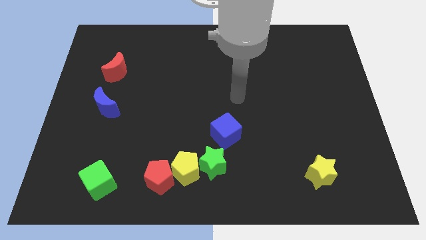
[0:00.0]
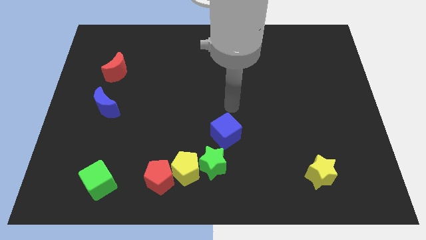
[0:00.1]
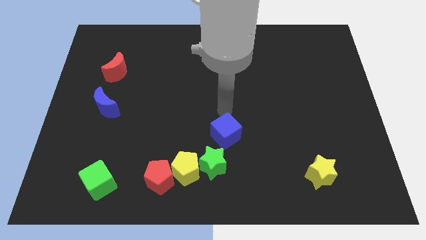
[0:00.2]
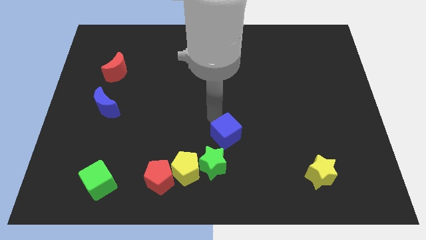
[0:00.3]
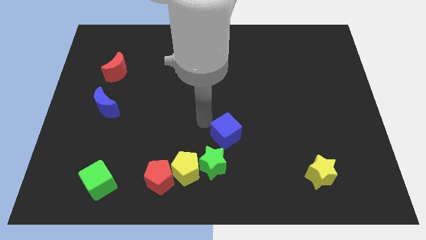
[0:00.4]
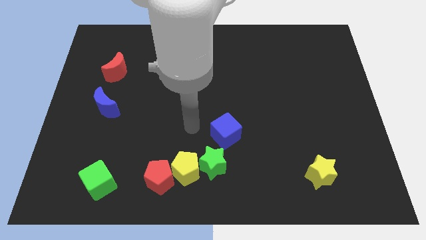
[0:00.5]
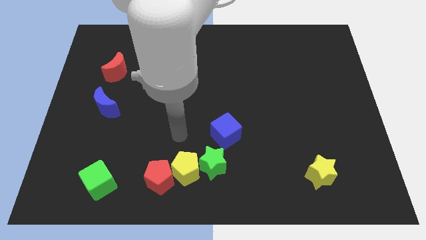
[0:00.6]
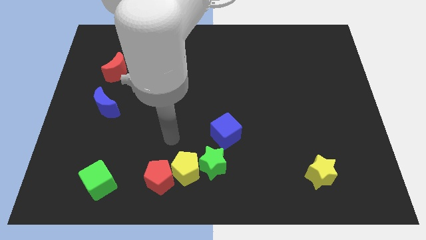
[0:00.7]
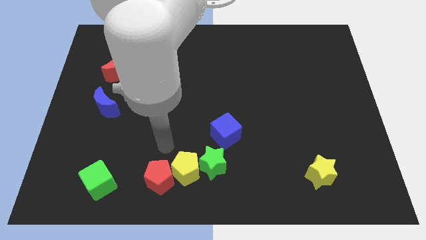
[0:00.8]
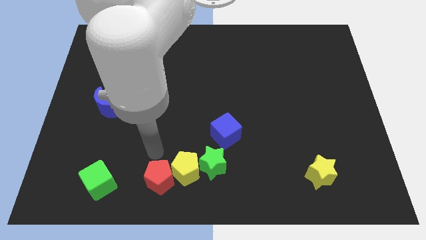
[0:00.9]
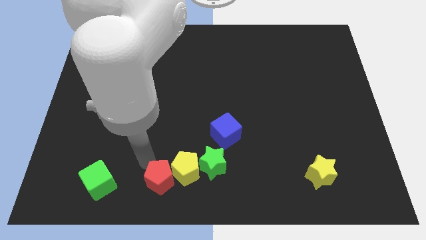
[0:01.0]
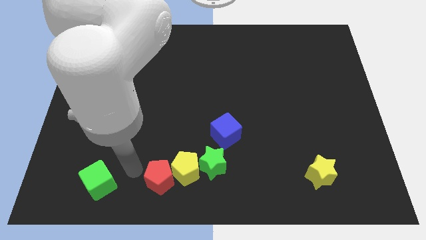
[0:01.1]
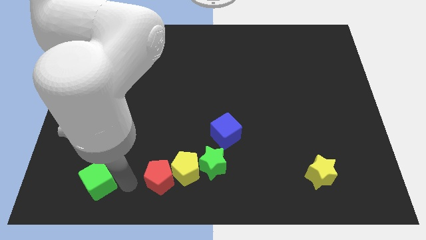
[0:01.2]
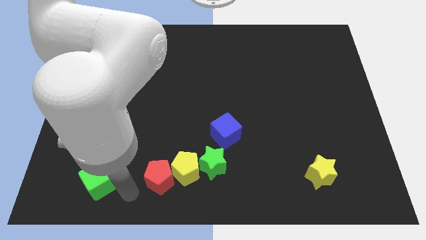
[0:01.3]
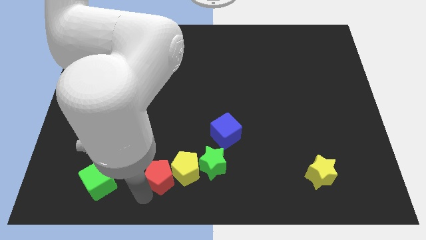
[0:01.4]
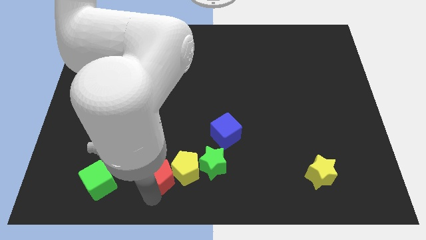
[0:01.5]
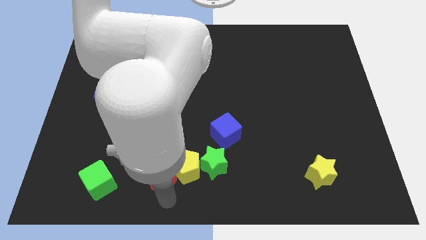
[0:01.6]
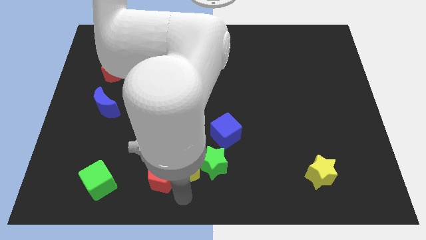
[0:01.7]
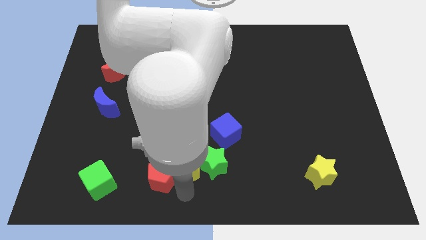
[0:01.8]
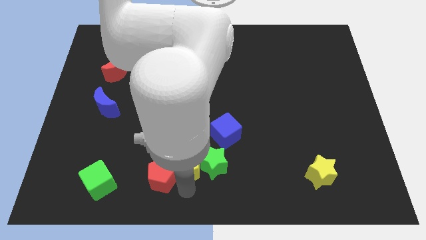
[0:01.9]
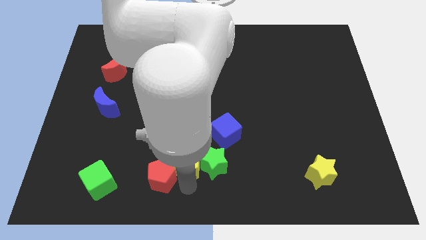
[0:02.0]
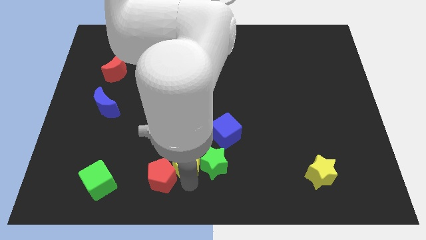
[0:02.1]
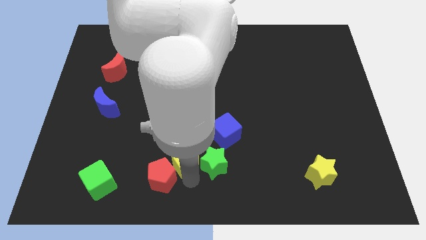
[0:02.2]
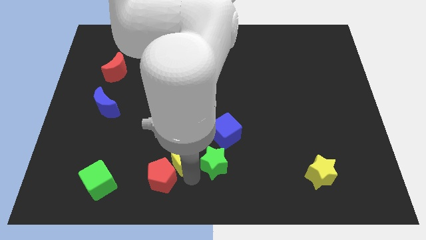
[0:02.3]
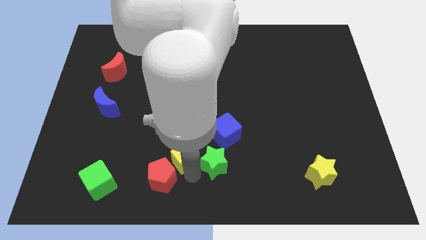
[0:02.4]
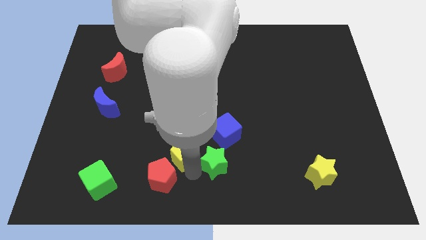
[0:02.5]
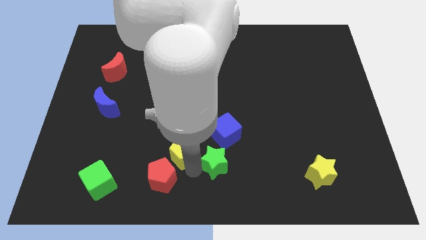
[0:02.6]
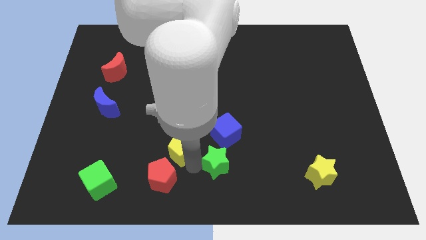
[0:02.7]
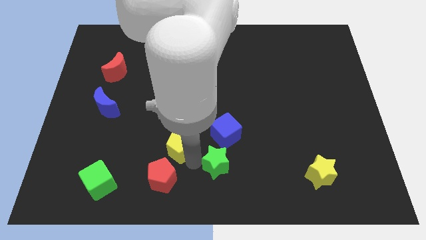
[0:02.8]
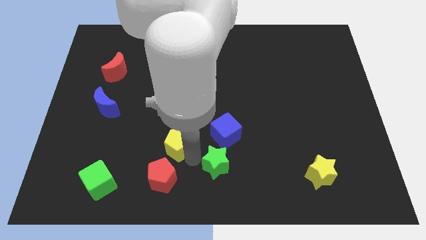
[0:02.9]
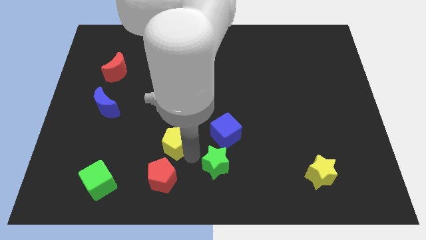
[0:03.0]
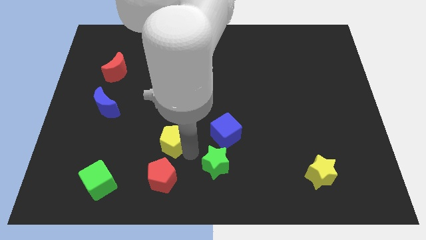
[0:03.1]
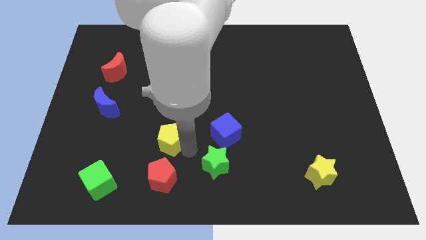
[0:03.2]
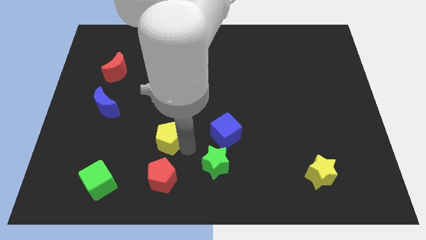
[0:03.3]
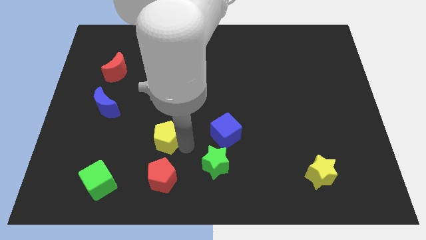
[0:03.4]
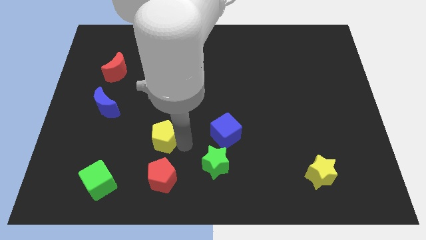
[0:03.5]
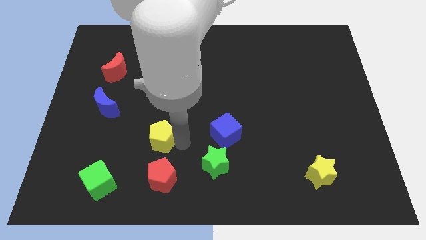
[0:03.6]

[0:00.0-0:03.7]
separate the yellow pentagon from the green star and red pentagon

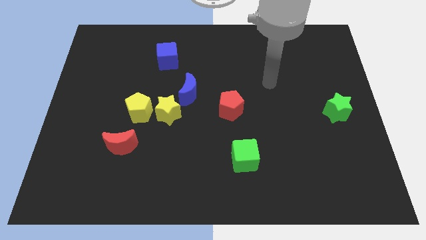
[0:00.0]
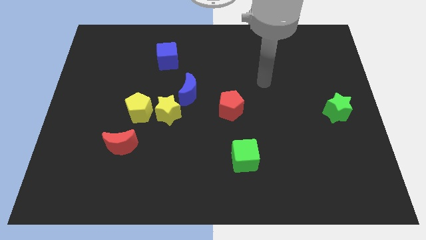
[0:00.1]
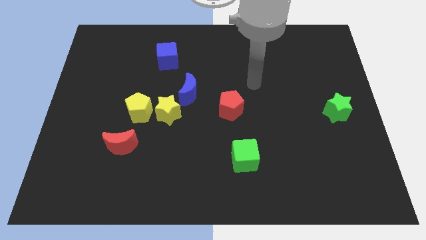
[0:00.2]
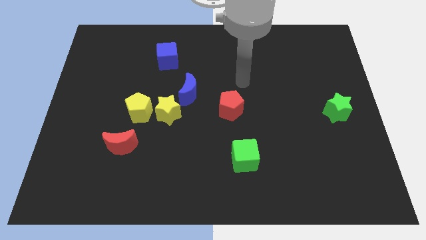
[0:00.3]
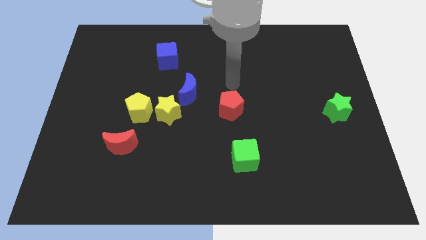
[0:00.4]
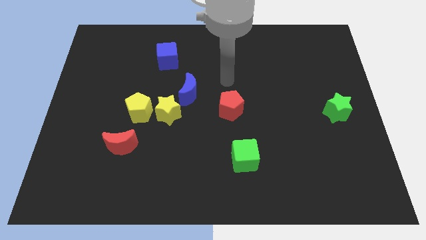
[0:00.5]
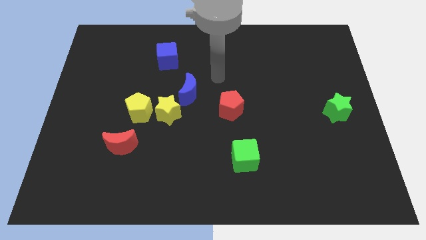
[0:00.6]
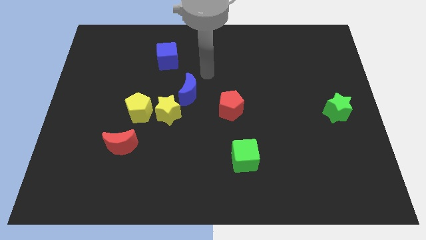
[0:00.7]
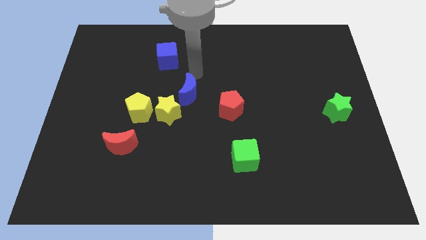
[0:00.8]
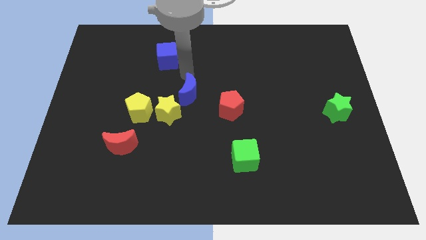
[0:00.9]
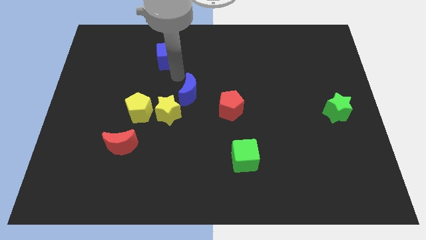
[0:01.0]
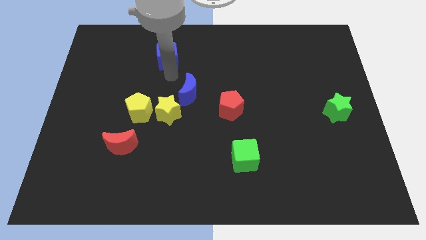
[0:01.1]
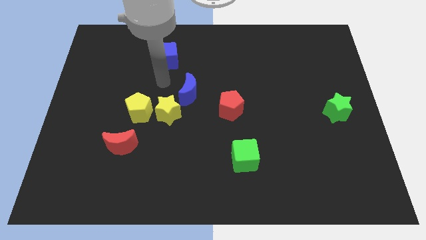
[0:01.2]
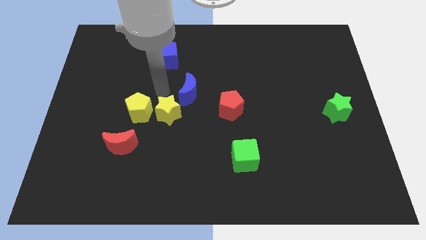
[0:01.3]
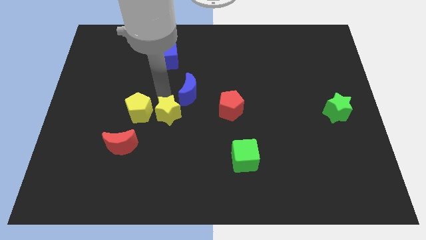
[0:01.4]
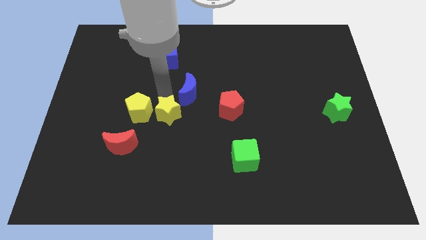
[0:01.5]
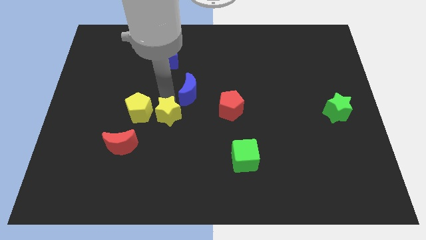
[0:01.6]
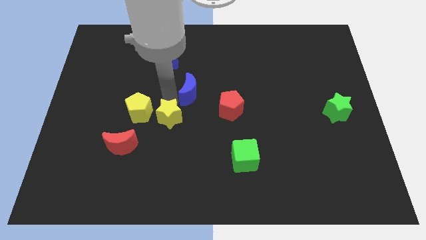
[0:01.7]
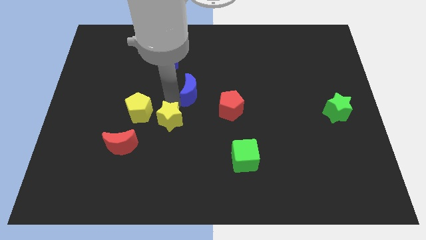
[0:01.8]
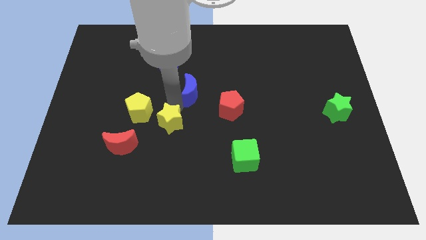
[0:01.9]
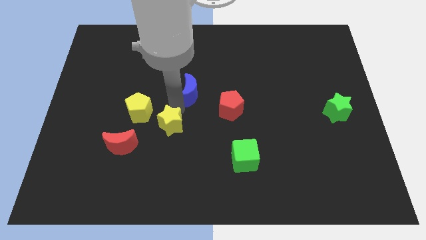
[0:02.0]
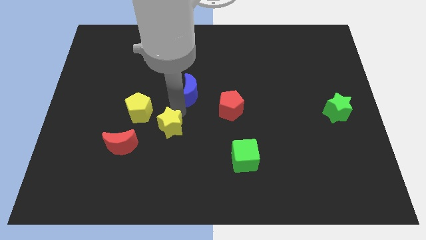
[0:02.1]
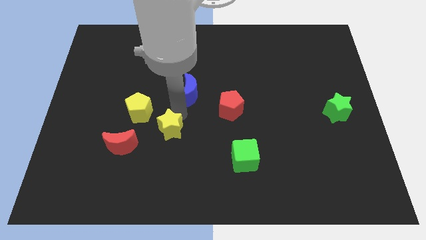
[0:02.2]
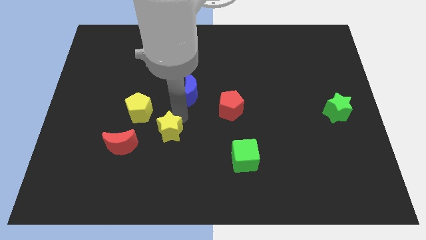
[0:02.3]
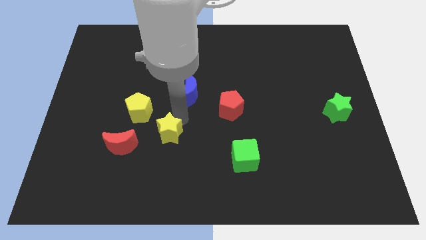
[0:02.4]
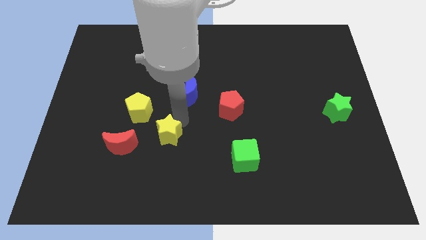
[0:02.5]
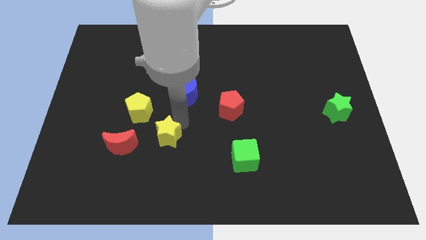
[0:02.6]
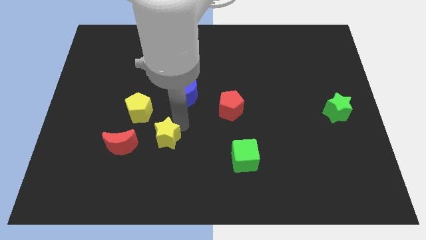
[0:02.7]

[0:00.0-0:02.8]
move the yellow star away from the yellow pentagon and blue moon

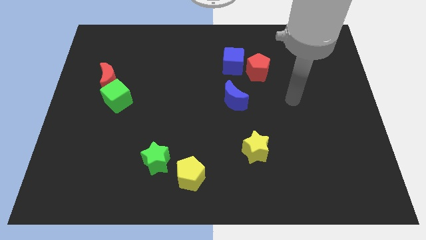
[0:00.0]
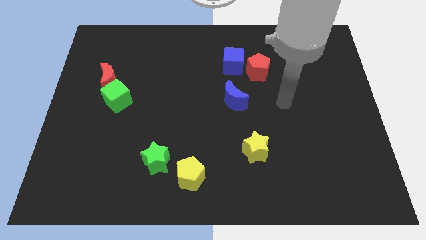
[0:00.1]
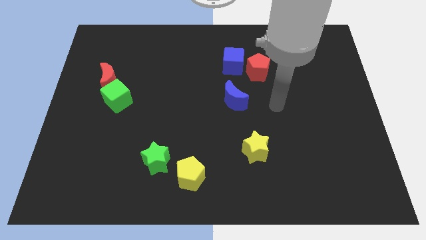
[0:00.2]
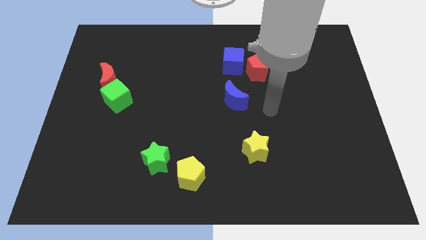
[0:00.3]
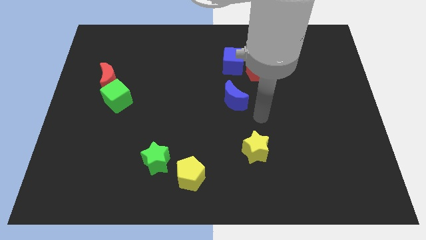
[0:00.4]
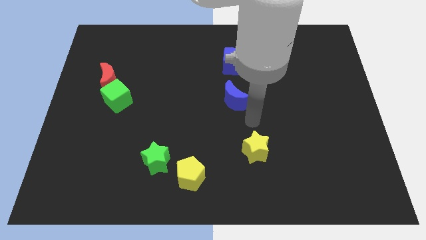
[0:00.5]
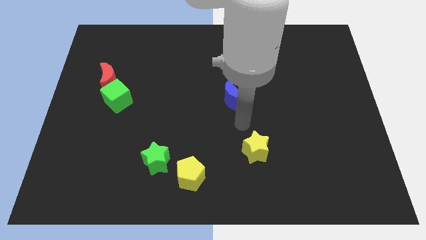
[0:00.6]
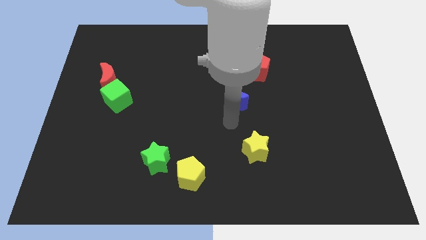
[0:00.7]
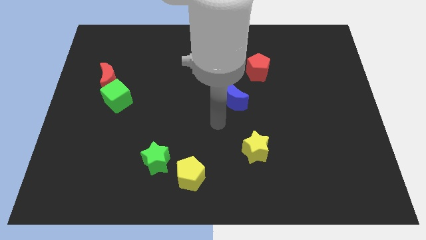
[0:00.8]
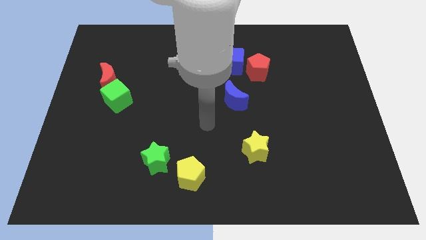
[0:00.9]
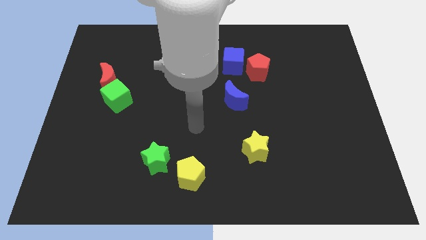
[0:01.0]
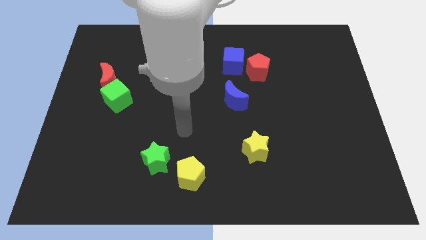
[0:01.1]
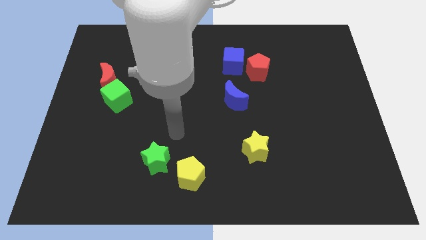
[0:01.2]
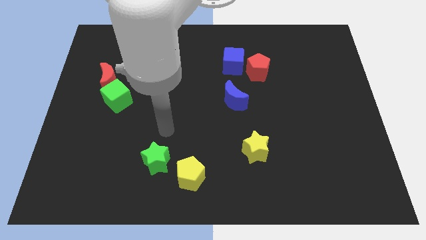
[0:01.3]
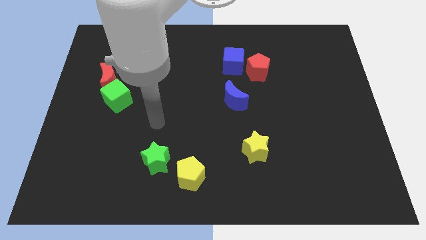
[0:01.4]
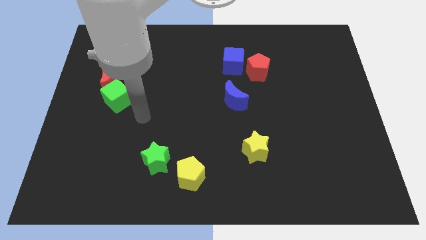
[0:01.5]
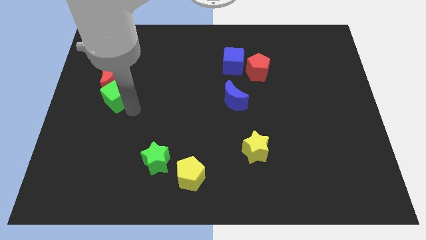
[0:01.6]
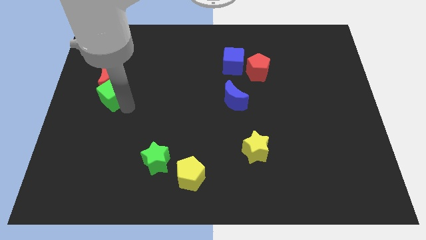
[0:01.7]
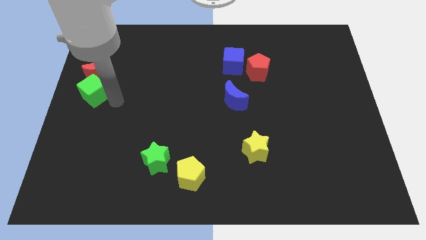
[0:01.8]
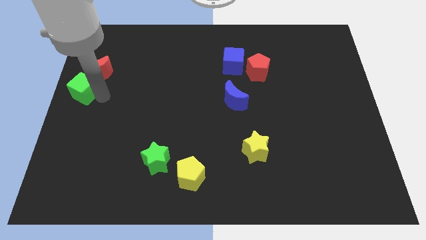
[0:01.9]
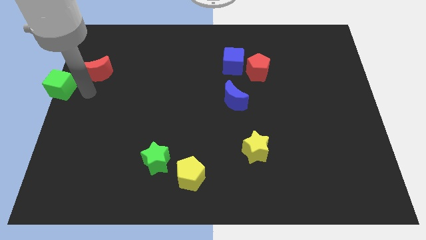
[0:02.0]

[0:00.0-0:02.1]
move the red moon away from the green cube

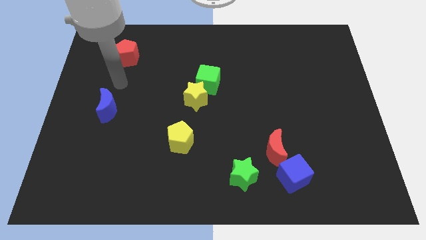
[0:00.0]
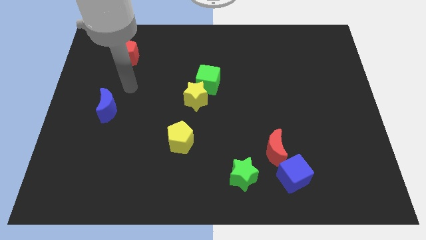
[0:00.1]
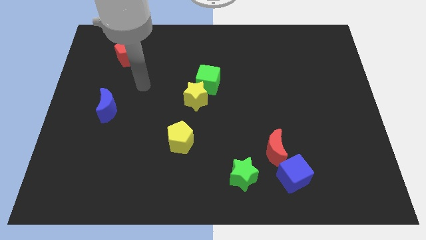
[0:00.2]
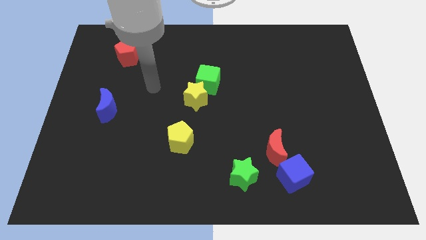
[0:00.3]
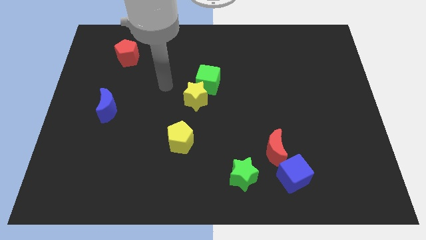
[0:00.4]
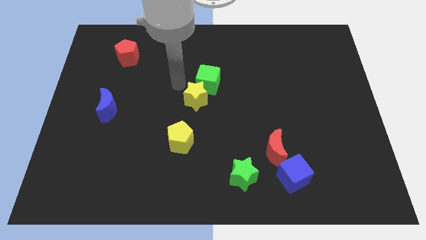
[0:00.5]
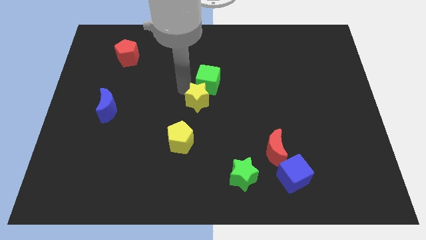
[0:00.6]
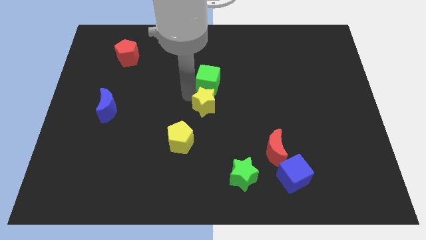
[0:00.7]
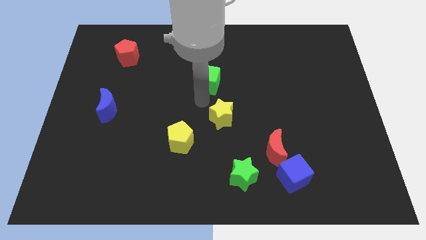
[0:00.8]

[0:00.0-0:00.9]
pull the green cube apart from the yellow star

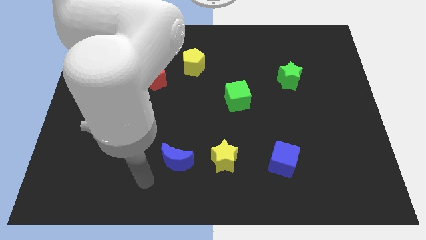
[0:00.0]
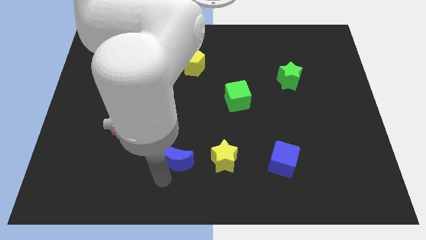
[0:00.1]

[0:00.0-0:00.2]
pull the blue moon apart from the yellow star
